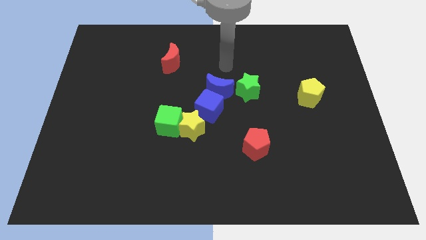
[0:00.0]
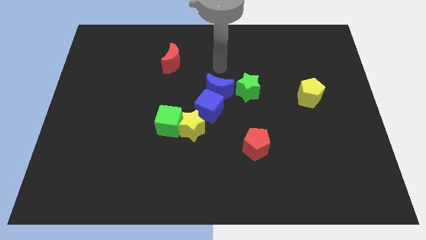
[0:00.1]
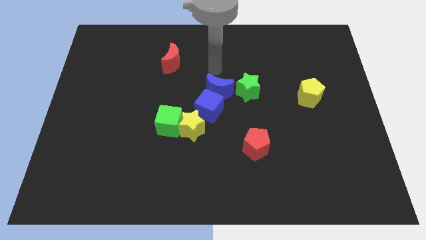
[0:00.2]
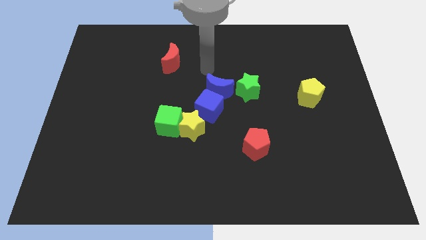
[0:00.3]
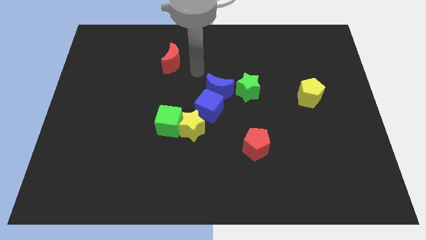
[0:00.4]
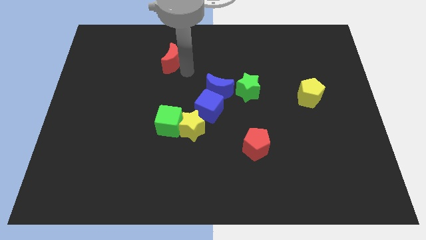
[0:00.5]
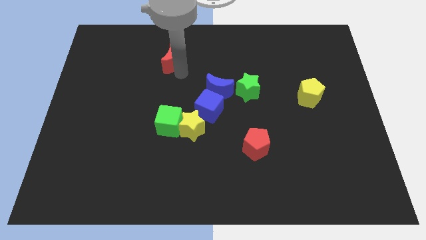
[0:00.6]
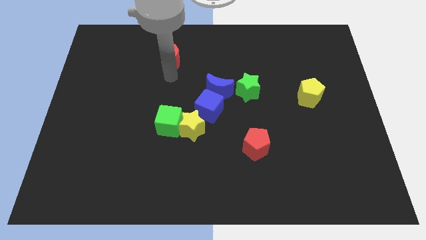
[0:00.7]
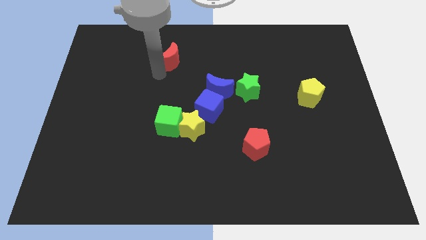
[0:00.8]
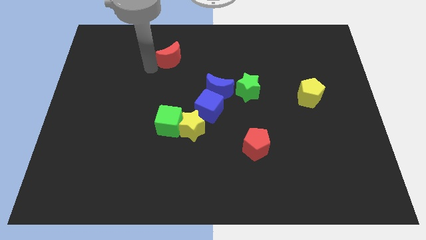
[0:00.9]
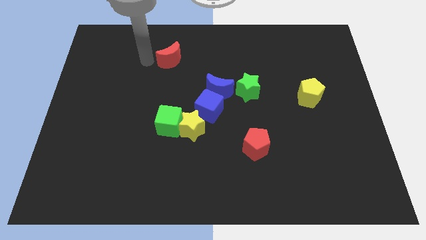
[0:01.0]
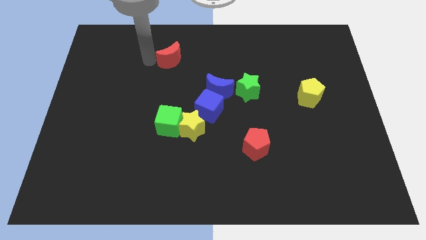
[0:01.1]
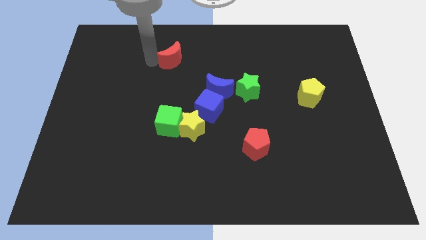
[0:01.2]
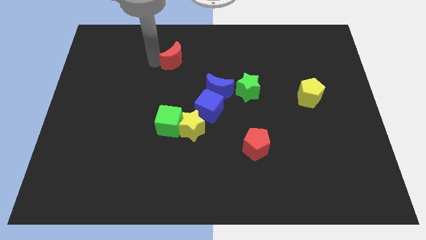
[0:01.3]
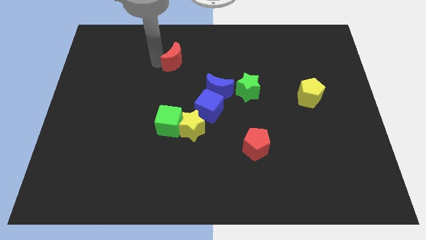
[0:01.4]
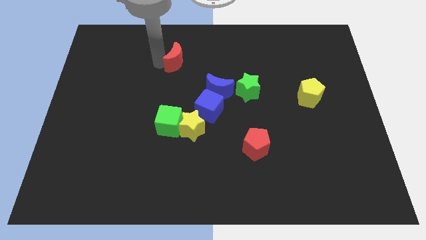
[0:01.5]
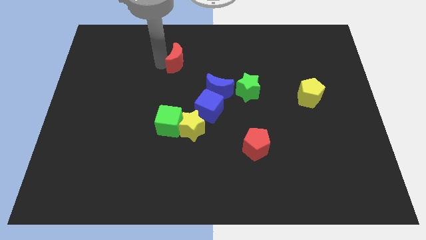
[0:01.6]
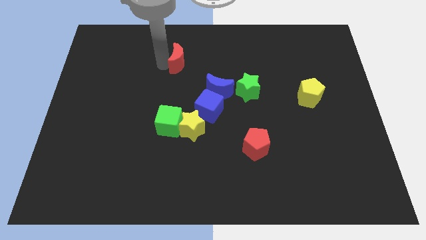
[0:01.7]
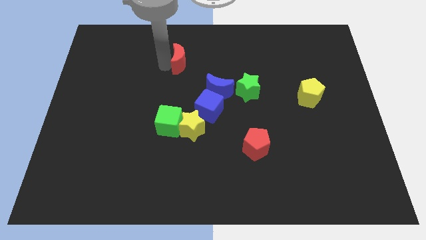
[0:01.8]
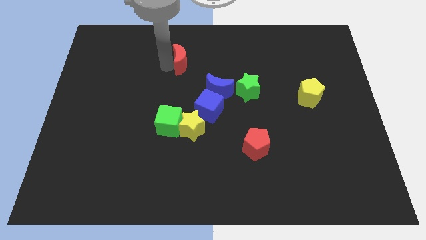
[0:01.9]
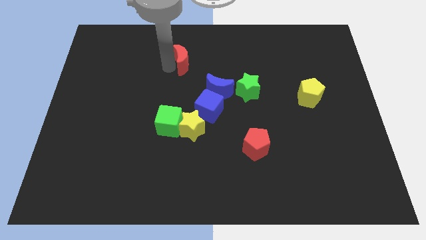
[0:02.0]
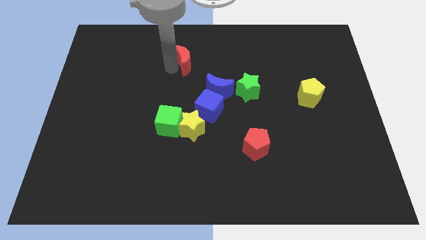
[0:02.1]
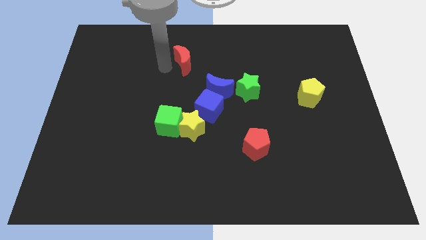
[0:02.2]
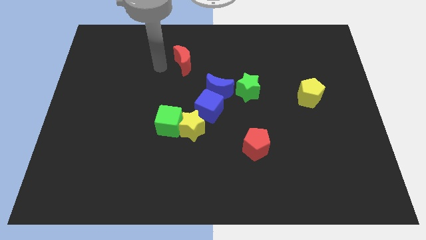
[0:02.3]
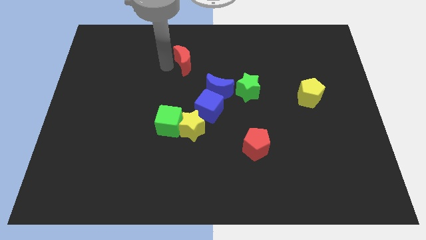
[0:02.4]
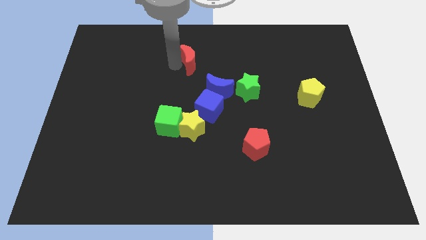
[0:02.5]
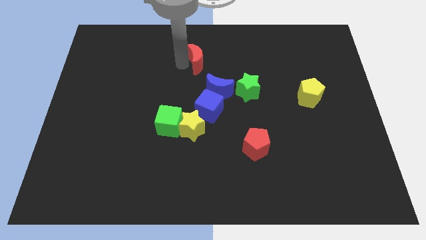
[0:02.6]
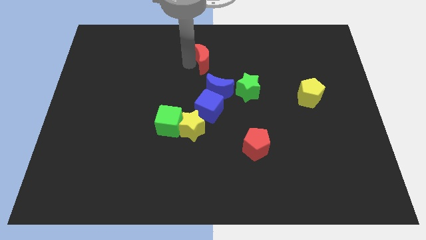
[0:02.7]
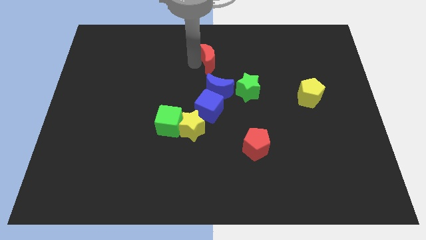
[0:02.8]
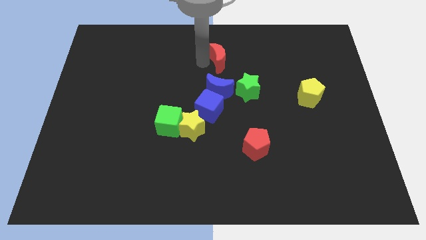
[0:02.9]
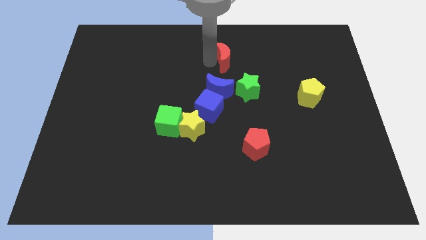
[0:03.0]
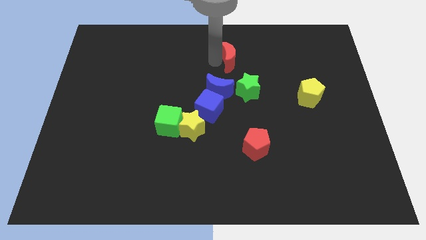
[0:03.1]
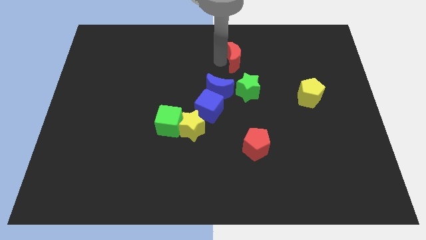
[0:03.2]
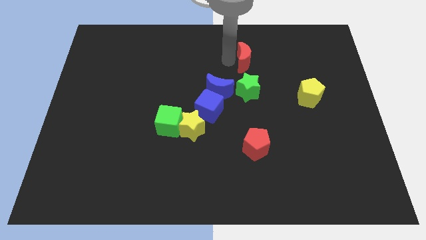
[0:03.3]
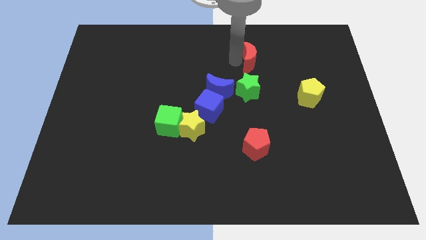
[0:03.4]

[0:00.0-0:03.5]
slide the red moon right

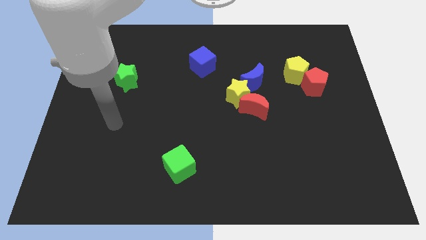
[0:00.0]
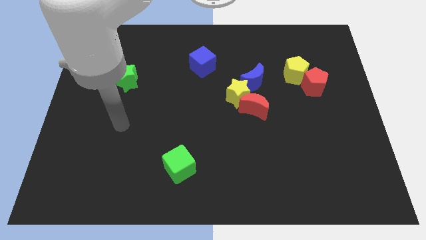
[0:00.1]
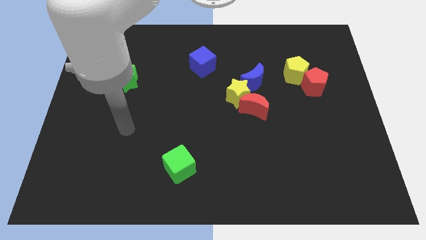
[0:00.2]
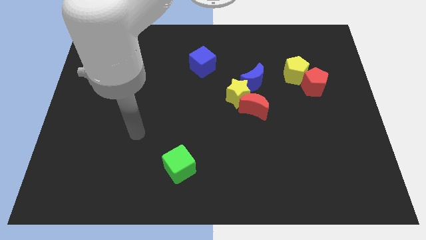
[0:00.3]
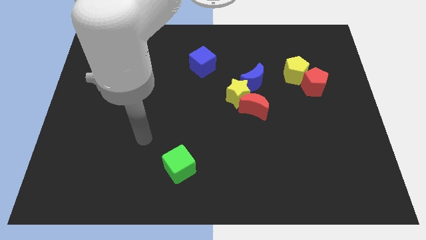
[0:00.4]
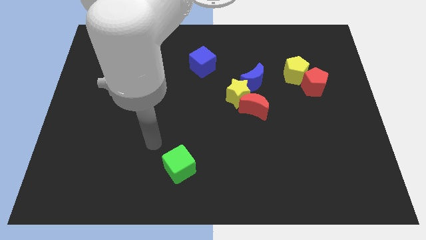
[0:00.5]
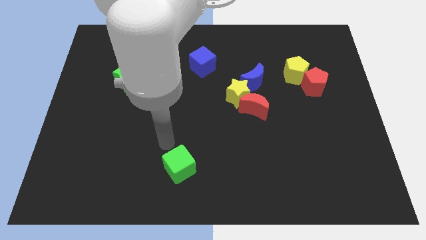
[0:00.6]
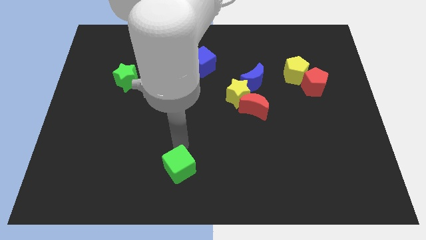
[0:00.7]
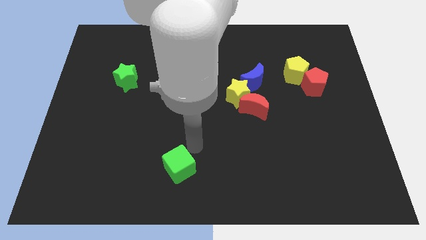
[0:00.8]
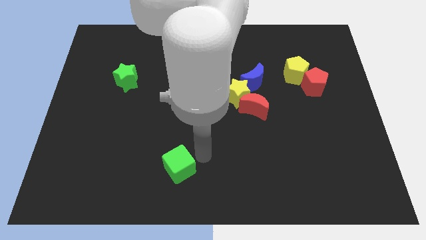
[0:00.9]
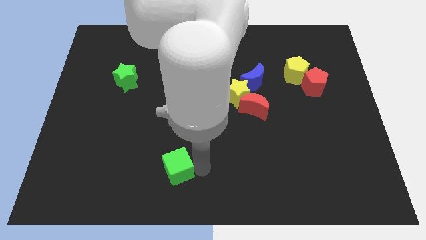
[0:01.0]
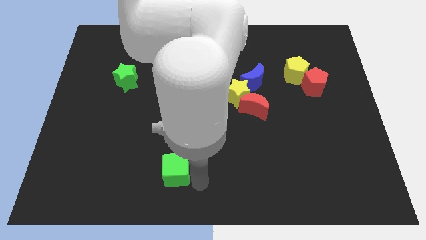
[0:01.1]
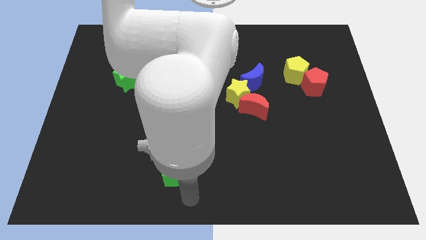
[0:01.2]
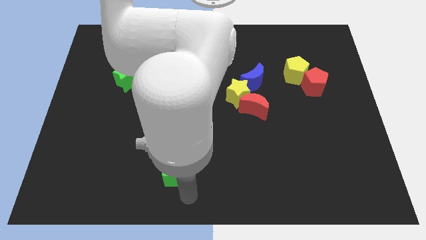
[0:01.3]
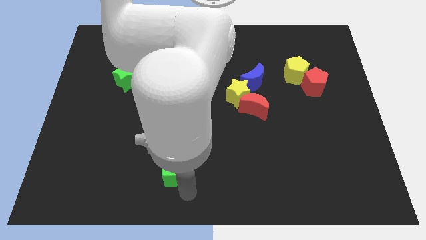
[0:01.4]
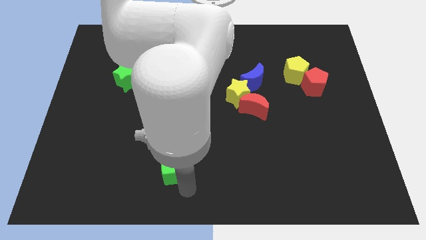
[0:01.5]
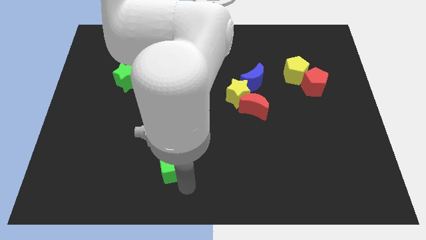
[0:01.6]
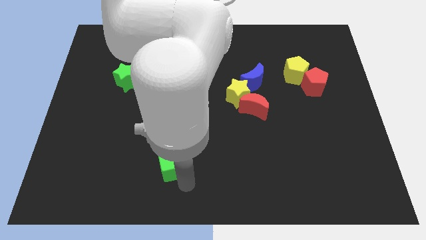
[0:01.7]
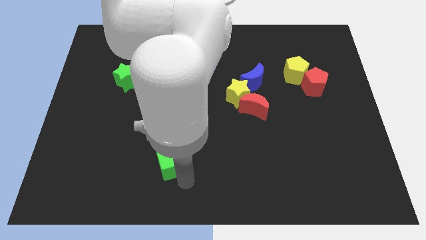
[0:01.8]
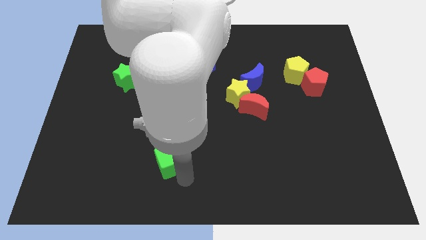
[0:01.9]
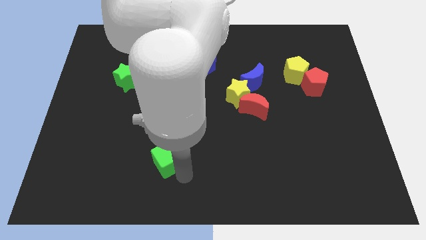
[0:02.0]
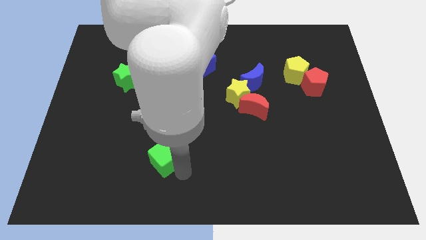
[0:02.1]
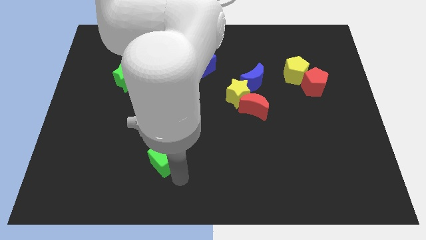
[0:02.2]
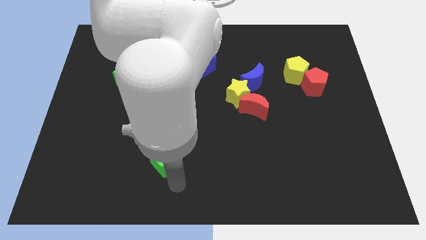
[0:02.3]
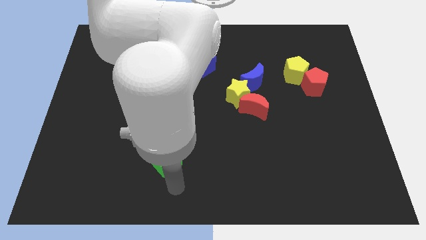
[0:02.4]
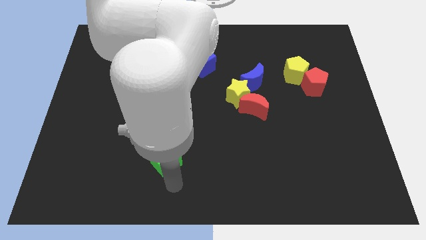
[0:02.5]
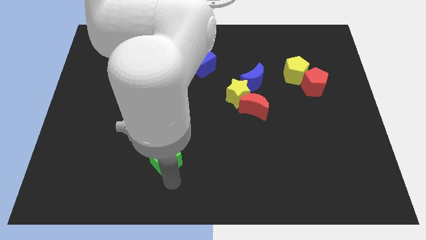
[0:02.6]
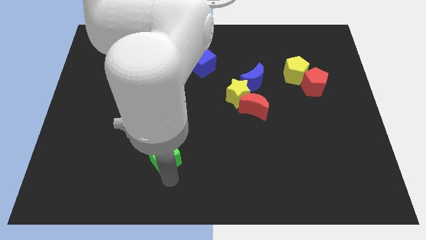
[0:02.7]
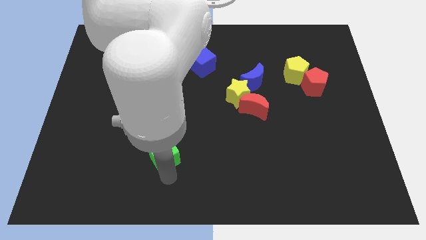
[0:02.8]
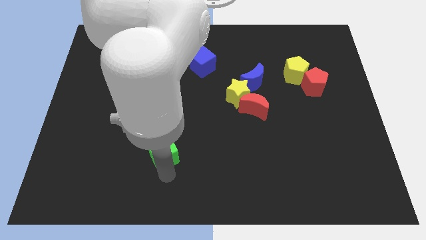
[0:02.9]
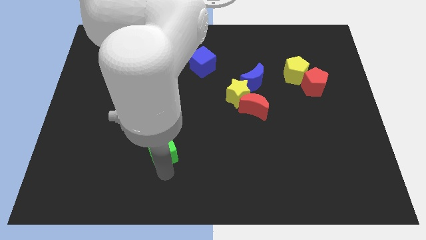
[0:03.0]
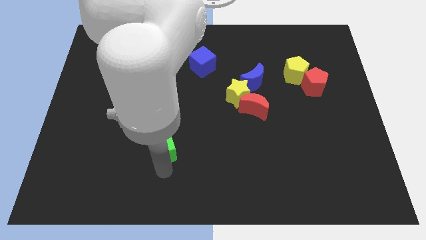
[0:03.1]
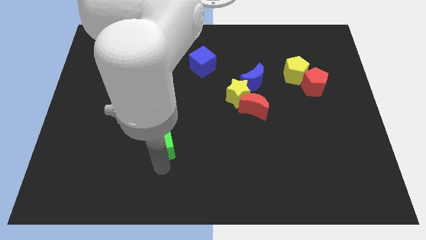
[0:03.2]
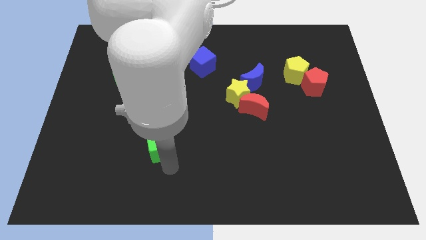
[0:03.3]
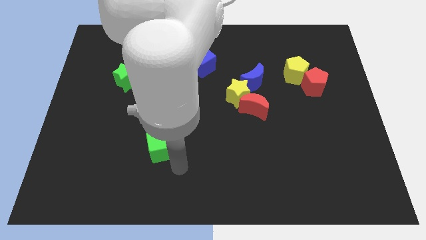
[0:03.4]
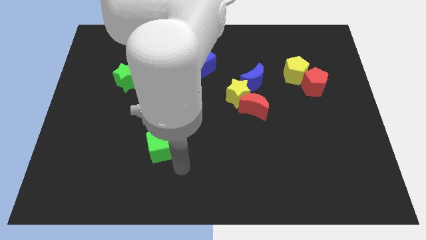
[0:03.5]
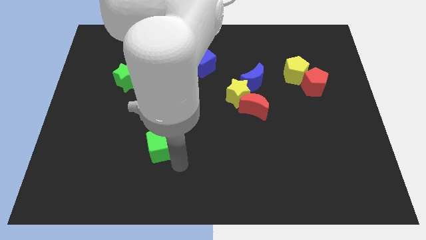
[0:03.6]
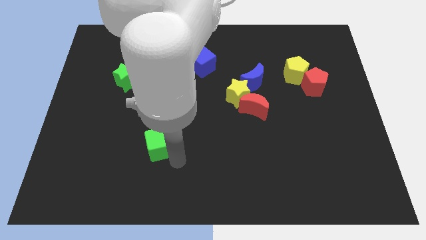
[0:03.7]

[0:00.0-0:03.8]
slightly slide the green cube up and left

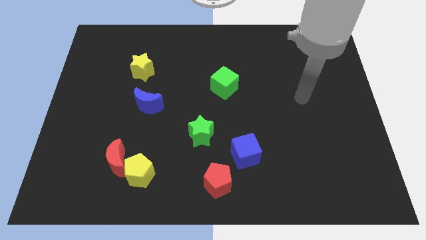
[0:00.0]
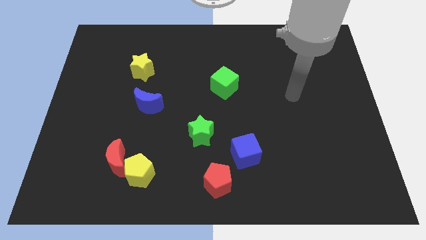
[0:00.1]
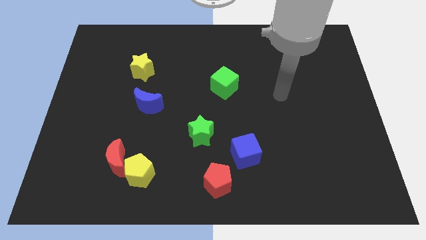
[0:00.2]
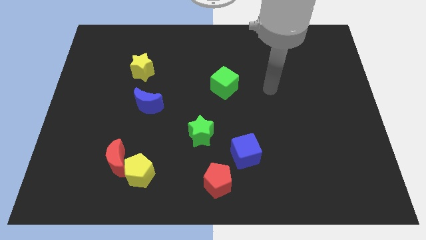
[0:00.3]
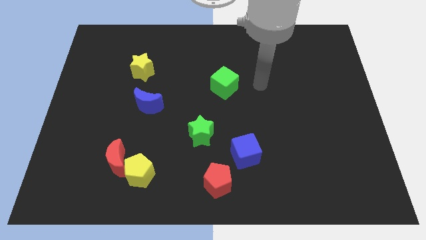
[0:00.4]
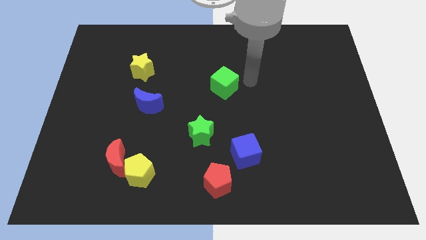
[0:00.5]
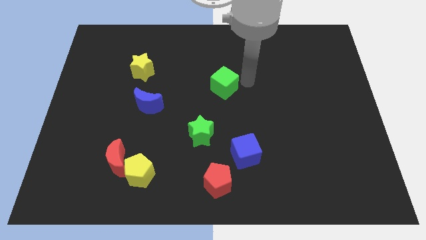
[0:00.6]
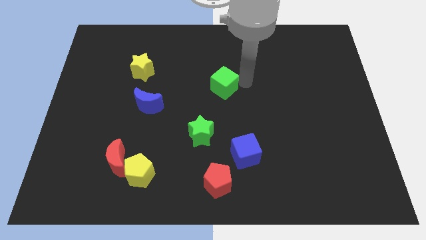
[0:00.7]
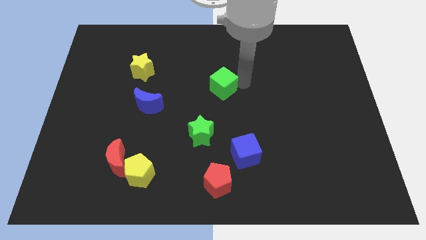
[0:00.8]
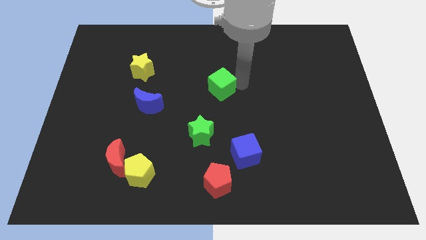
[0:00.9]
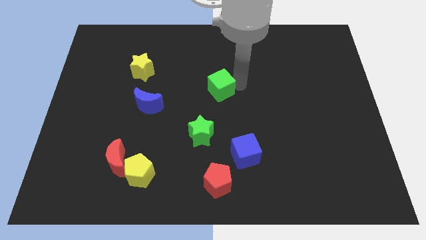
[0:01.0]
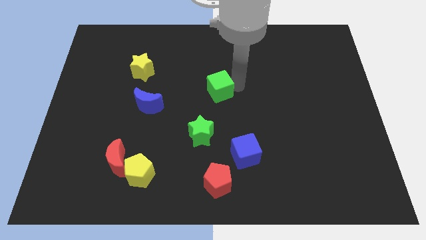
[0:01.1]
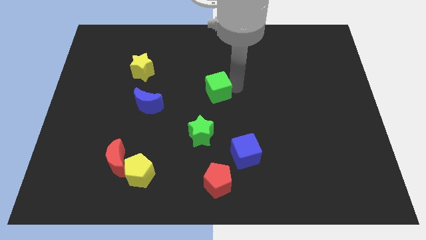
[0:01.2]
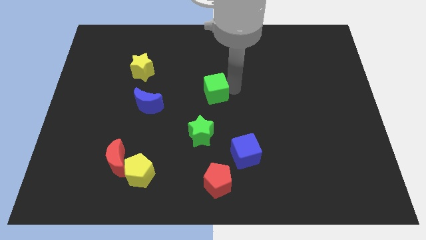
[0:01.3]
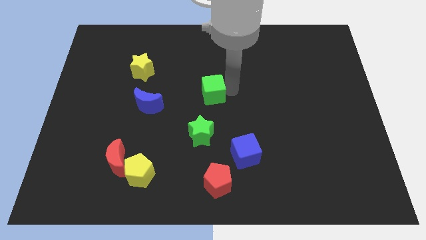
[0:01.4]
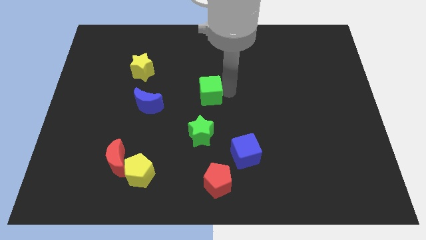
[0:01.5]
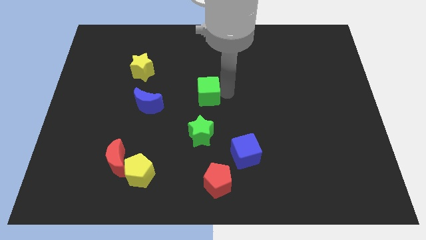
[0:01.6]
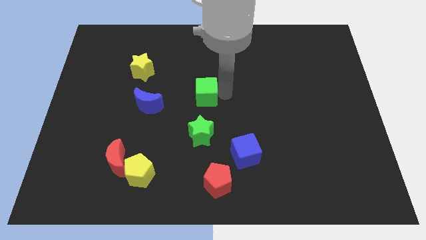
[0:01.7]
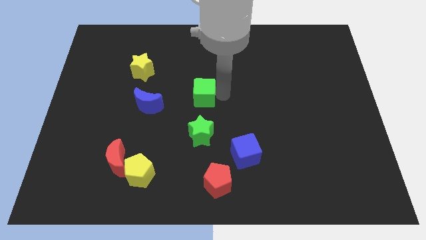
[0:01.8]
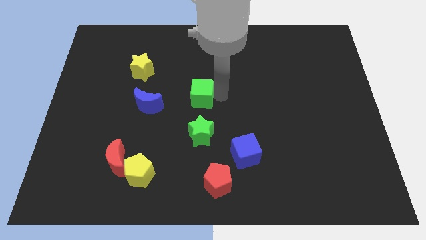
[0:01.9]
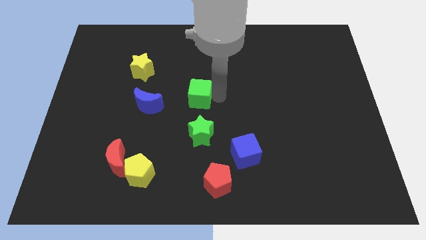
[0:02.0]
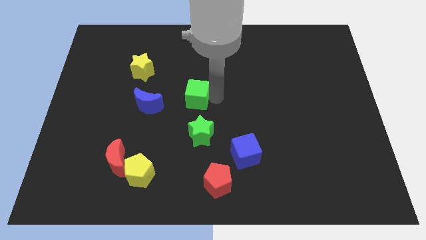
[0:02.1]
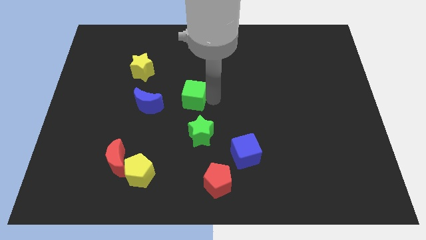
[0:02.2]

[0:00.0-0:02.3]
push the green cube to the left somewhat
